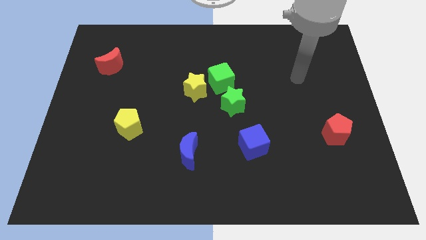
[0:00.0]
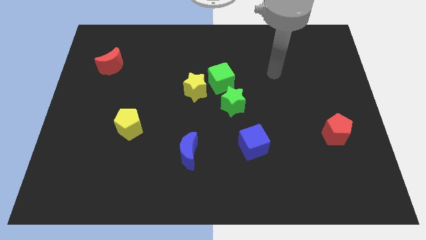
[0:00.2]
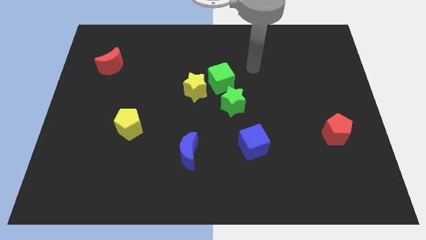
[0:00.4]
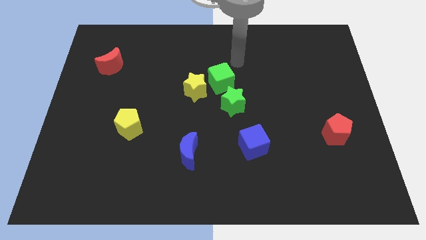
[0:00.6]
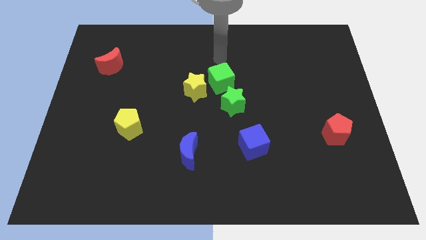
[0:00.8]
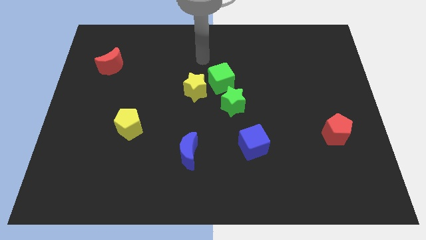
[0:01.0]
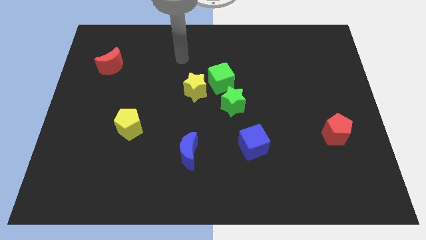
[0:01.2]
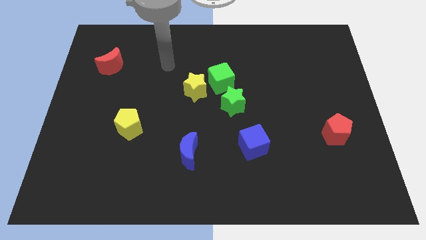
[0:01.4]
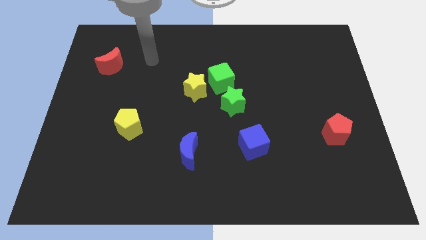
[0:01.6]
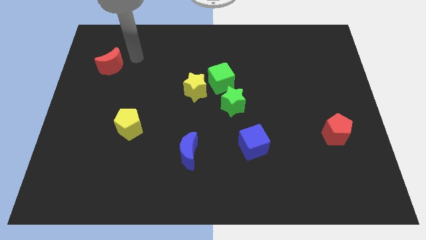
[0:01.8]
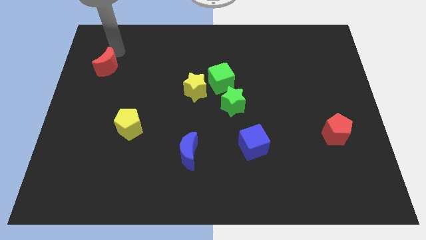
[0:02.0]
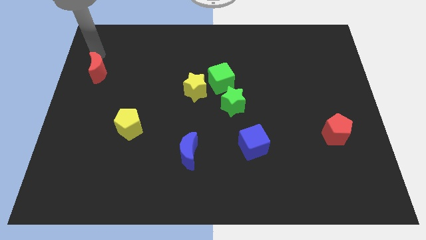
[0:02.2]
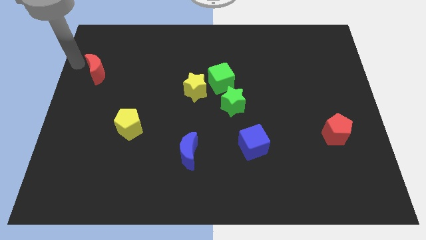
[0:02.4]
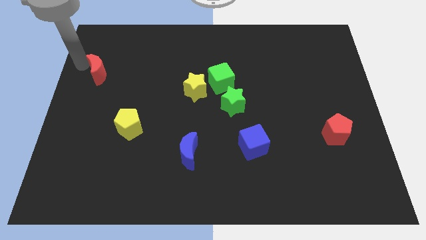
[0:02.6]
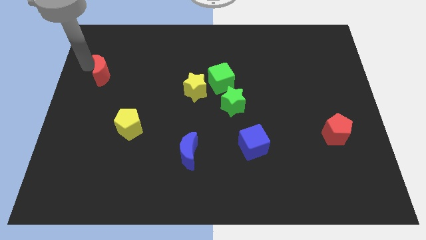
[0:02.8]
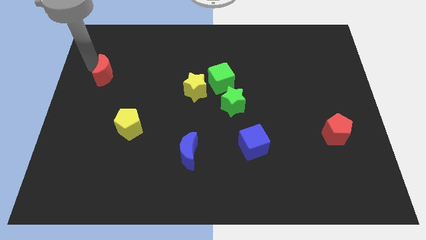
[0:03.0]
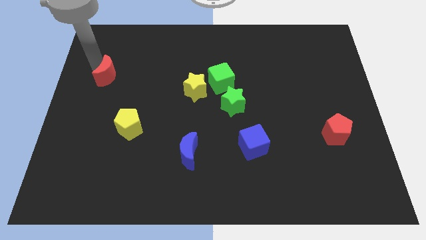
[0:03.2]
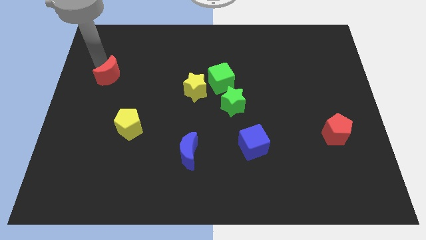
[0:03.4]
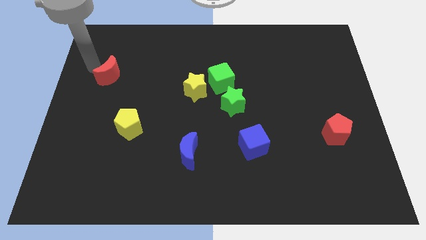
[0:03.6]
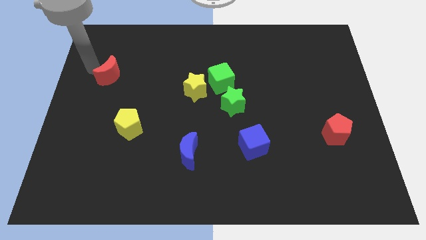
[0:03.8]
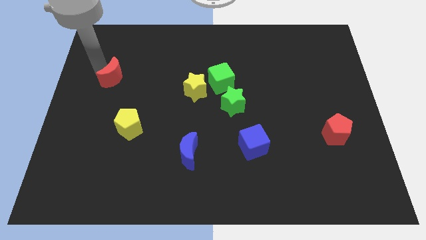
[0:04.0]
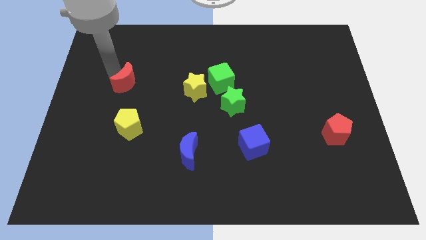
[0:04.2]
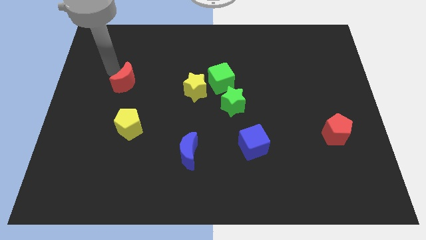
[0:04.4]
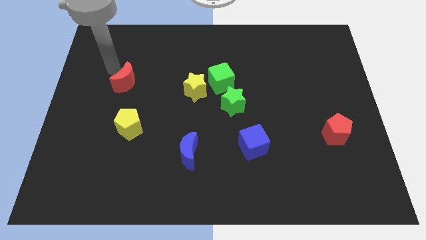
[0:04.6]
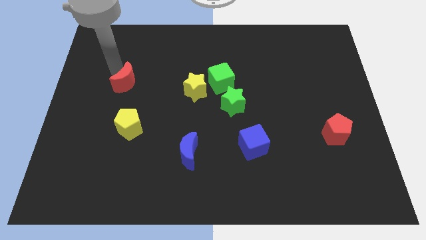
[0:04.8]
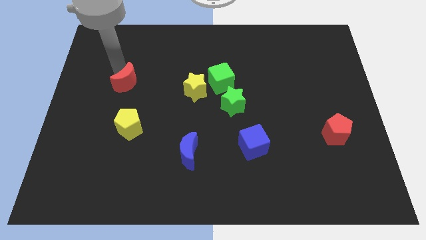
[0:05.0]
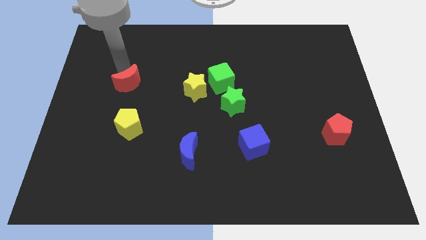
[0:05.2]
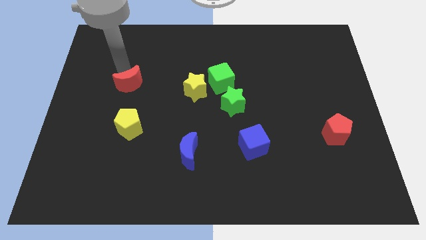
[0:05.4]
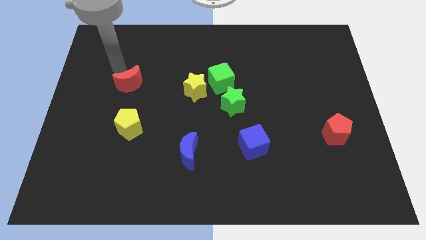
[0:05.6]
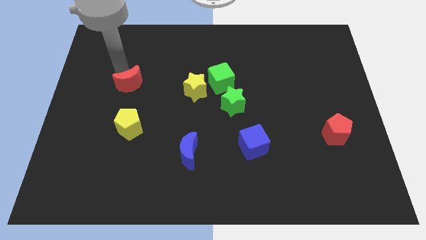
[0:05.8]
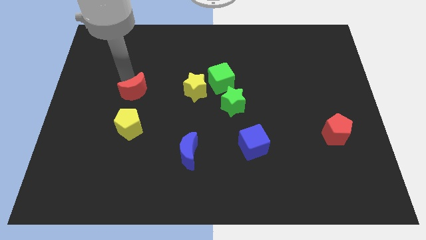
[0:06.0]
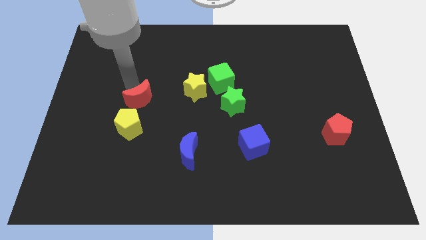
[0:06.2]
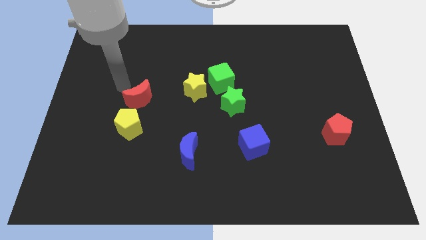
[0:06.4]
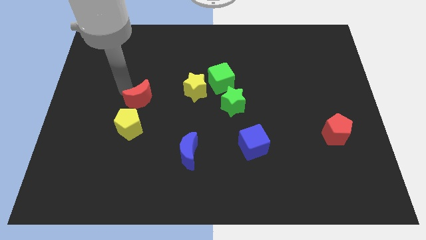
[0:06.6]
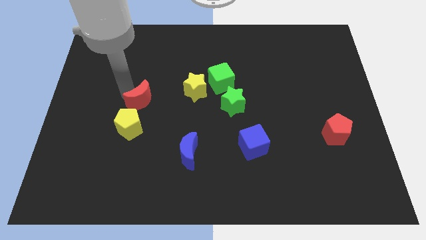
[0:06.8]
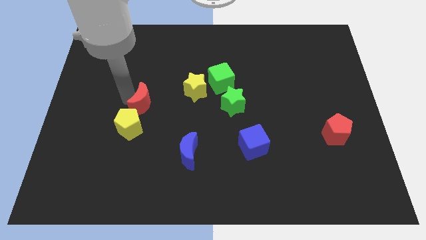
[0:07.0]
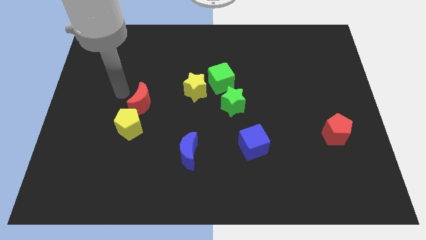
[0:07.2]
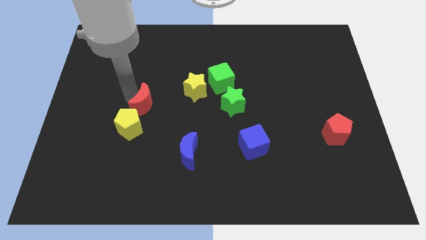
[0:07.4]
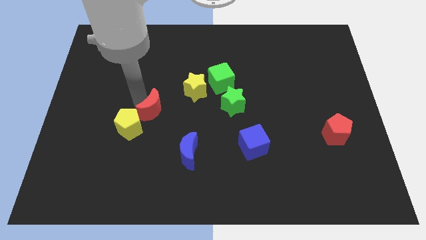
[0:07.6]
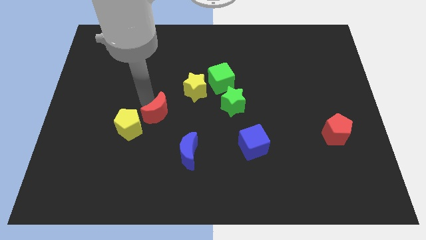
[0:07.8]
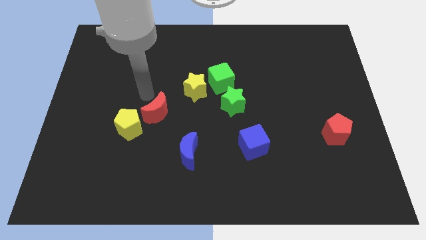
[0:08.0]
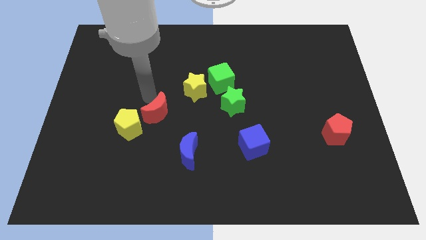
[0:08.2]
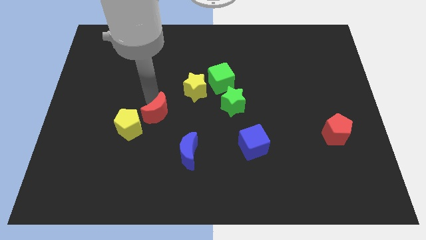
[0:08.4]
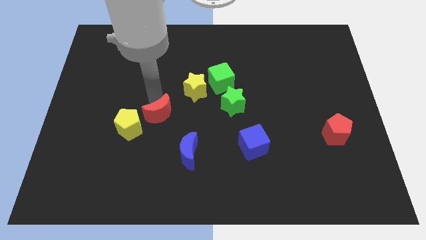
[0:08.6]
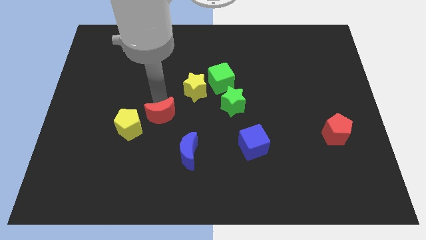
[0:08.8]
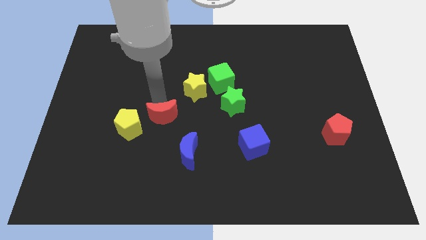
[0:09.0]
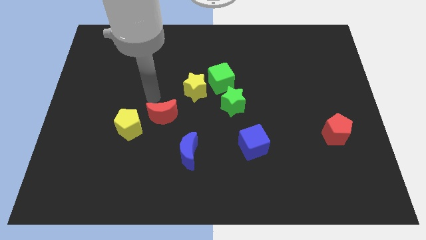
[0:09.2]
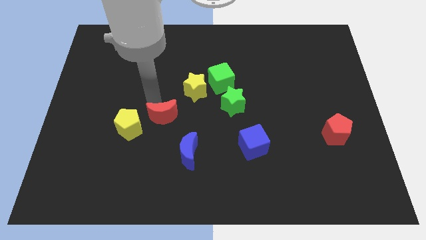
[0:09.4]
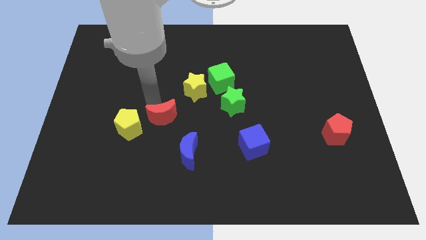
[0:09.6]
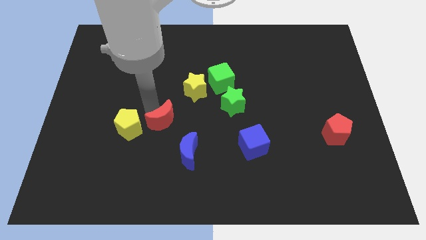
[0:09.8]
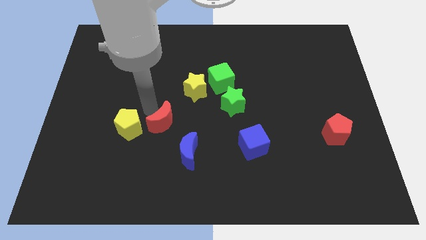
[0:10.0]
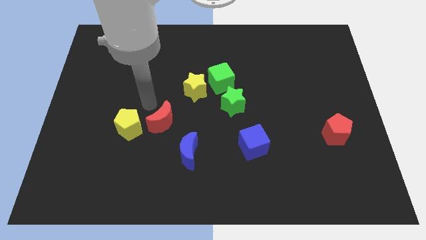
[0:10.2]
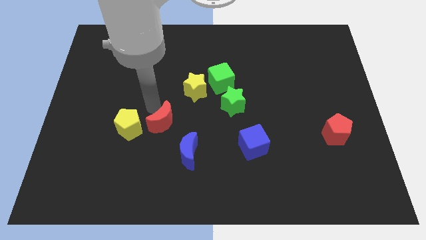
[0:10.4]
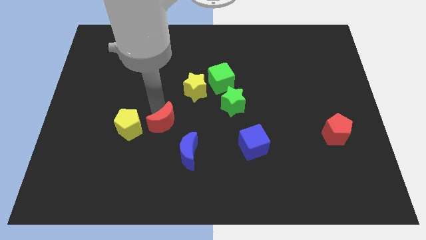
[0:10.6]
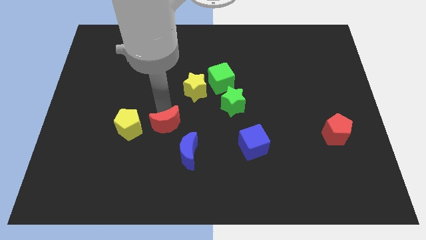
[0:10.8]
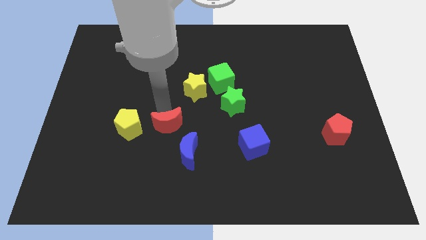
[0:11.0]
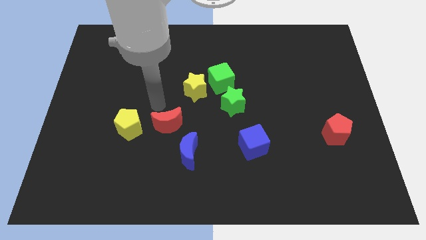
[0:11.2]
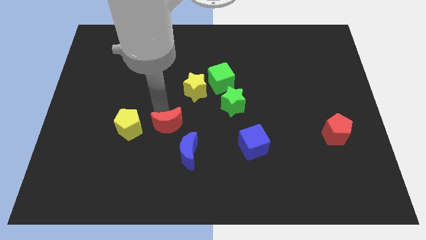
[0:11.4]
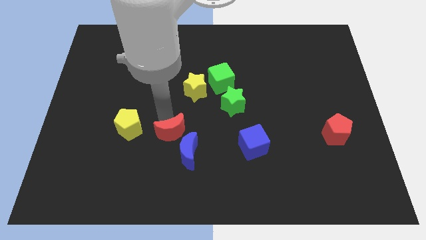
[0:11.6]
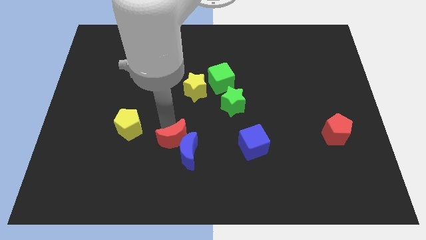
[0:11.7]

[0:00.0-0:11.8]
push the red moon close to the blue moon

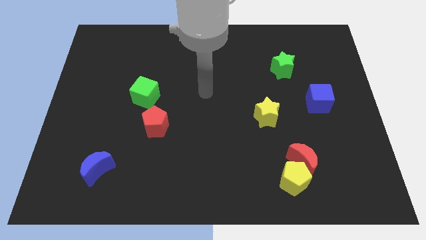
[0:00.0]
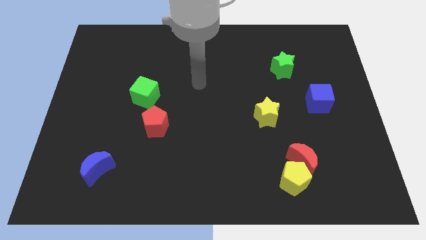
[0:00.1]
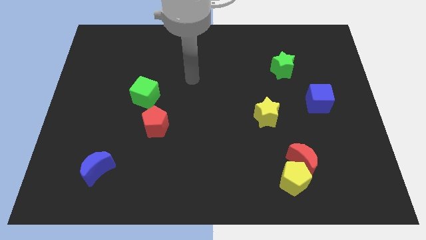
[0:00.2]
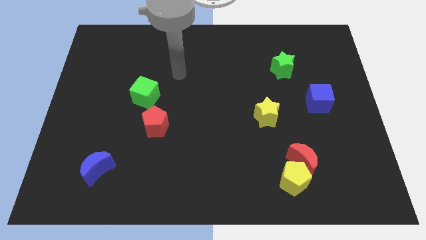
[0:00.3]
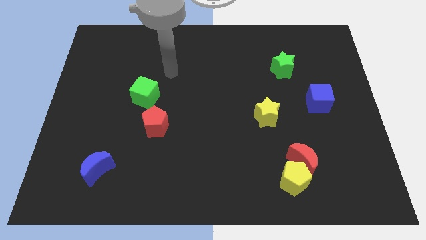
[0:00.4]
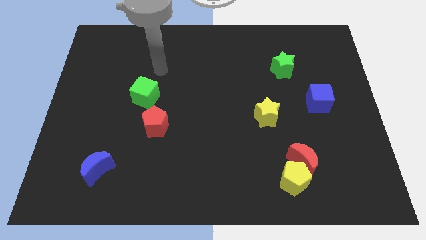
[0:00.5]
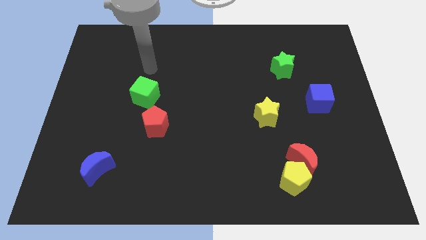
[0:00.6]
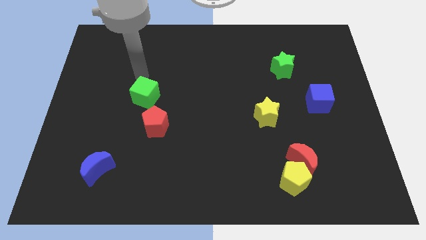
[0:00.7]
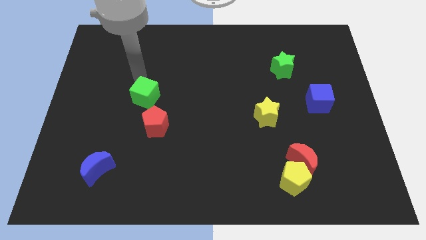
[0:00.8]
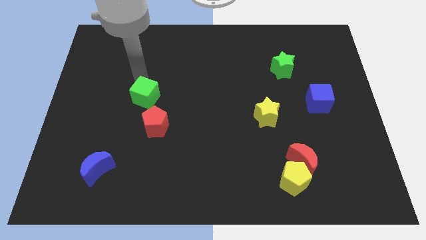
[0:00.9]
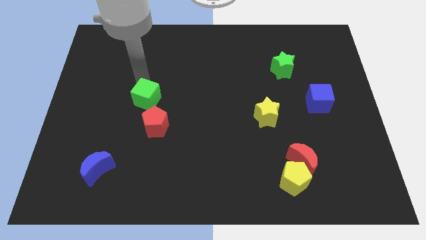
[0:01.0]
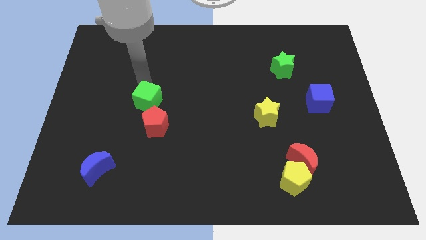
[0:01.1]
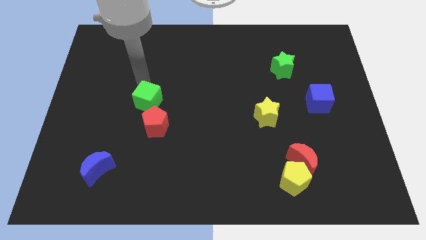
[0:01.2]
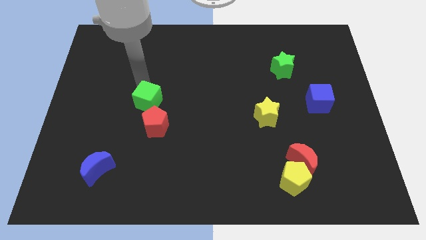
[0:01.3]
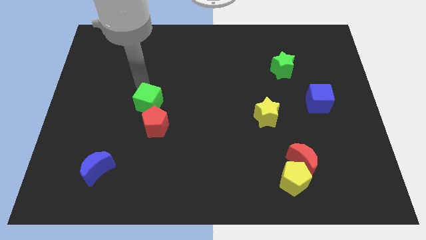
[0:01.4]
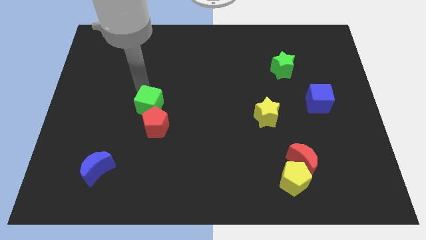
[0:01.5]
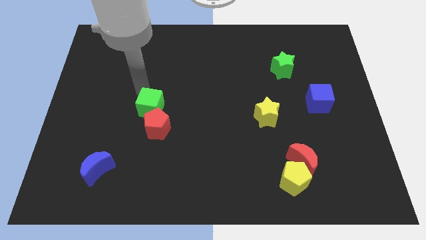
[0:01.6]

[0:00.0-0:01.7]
put the green cube towards the red pentagon
